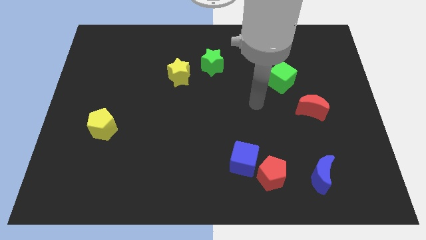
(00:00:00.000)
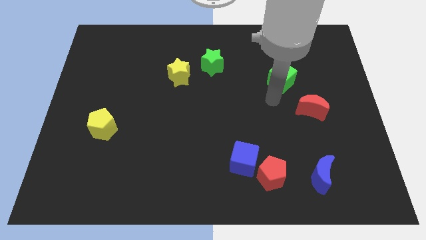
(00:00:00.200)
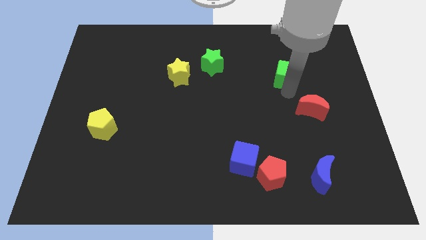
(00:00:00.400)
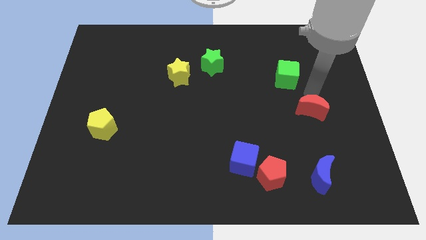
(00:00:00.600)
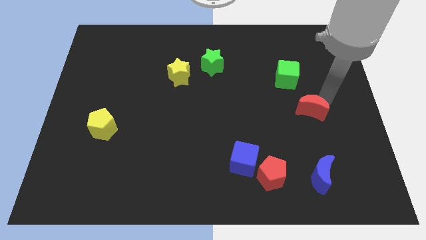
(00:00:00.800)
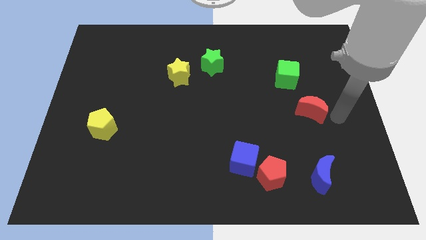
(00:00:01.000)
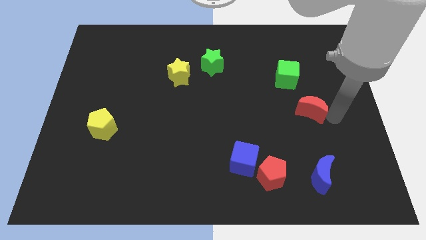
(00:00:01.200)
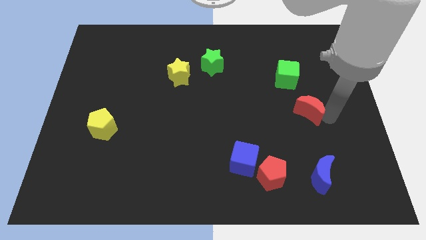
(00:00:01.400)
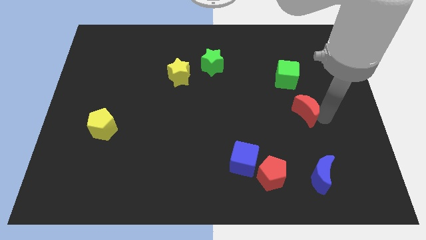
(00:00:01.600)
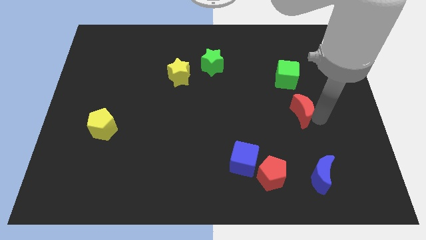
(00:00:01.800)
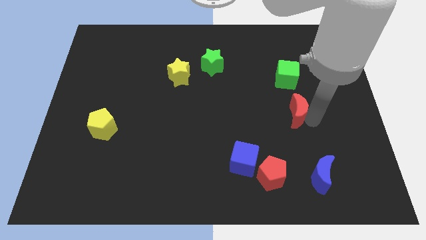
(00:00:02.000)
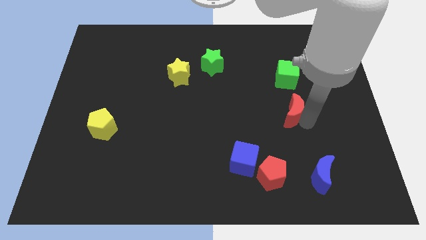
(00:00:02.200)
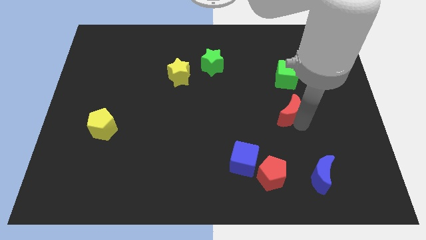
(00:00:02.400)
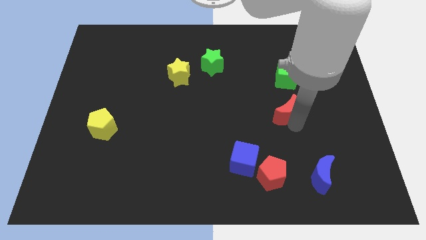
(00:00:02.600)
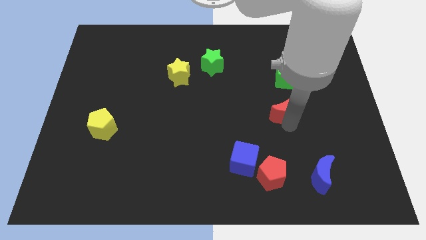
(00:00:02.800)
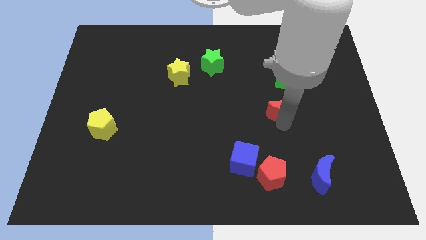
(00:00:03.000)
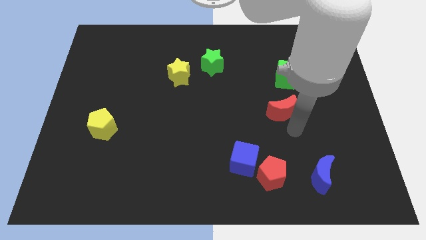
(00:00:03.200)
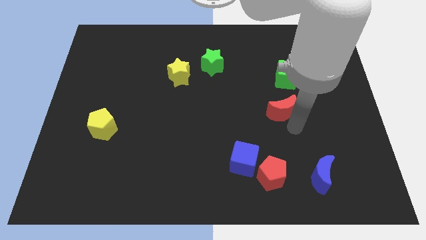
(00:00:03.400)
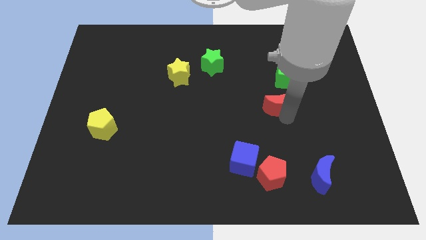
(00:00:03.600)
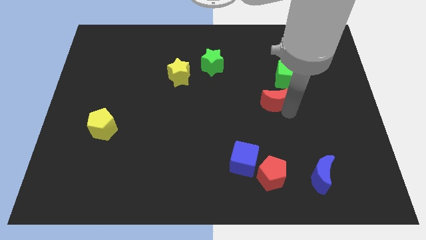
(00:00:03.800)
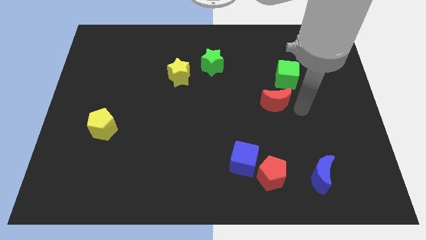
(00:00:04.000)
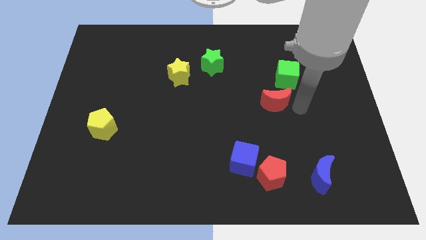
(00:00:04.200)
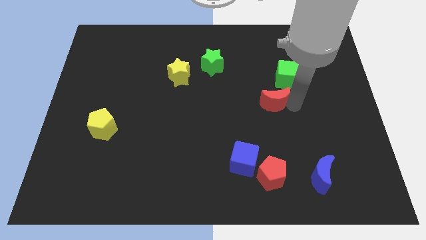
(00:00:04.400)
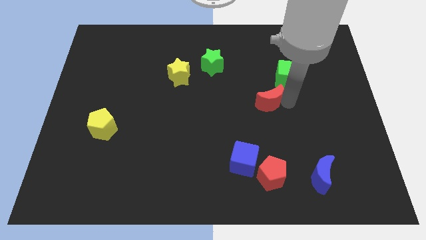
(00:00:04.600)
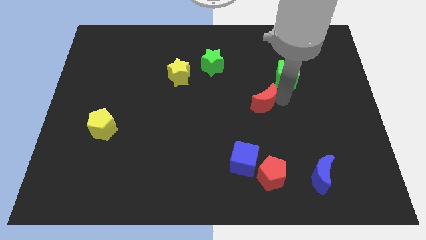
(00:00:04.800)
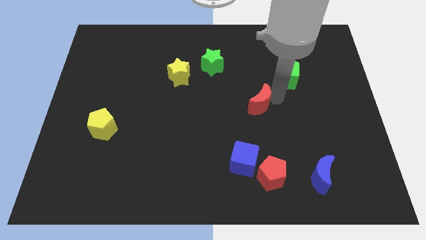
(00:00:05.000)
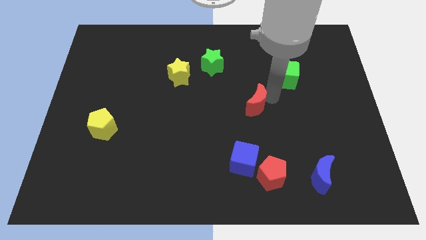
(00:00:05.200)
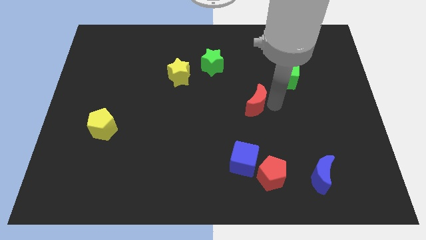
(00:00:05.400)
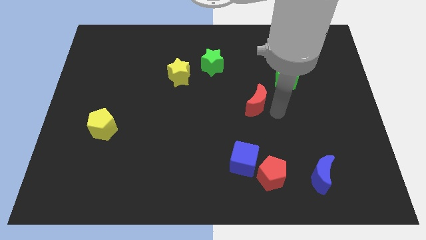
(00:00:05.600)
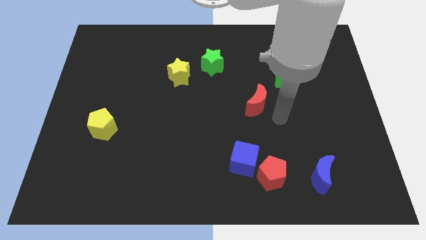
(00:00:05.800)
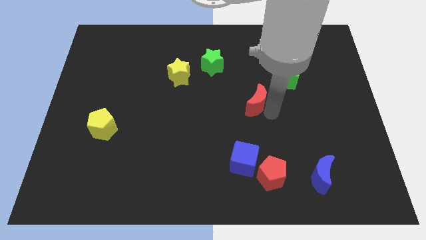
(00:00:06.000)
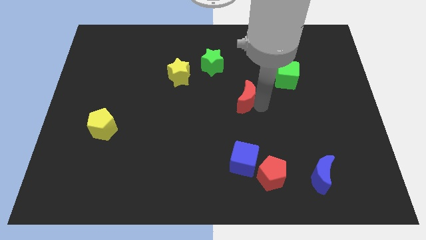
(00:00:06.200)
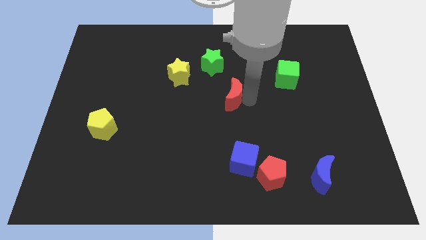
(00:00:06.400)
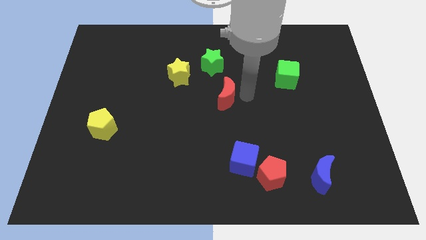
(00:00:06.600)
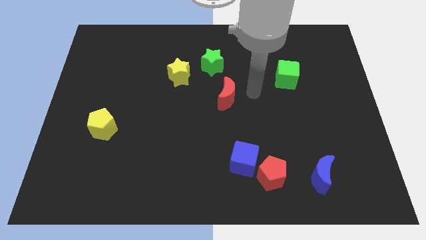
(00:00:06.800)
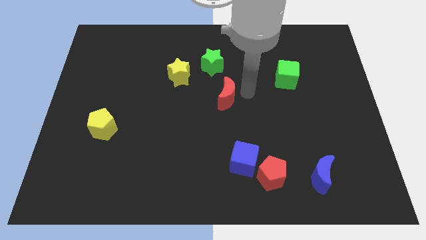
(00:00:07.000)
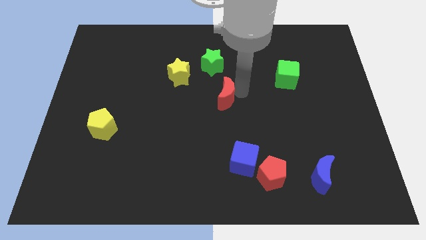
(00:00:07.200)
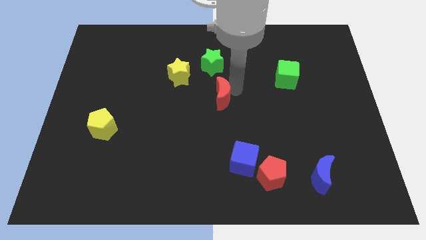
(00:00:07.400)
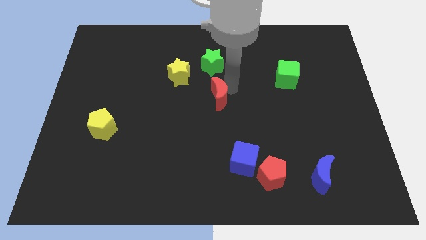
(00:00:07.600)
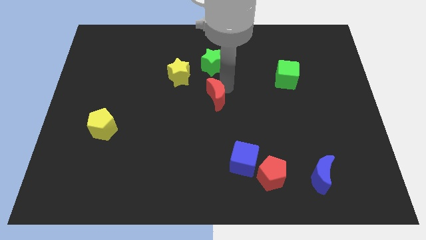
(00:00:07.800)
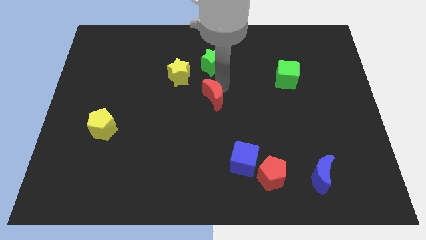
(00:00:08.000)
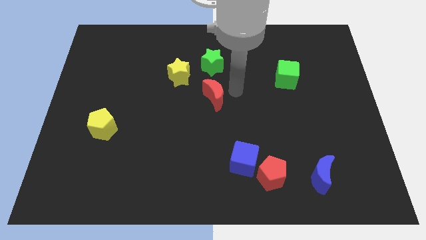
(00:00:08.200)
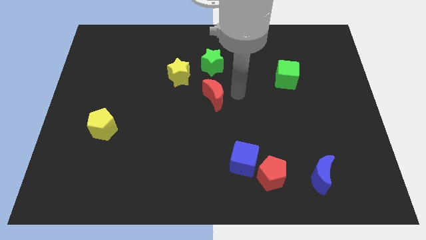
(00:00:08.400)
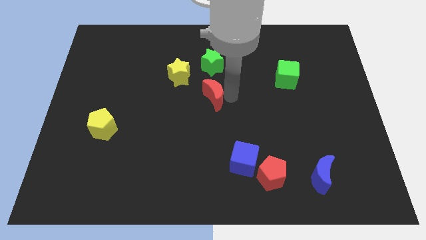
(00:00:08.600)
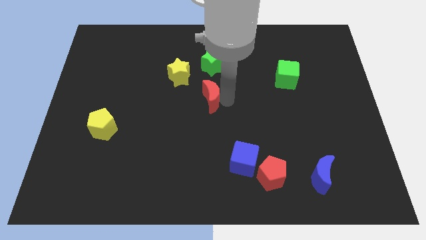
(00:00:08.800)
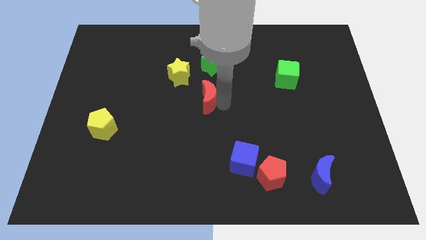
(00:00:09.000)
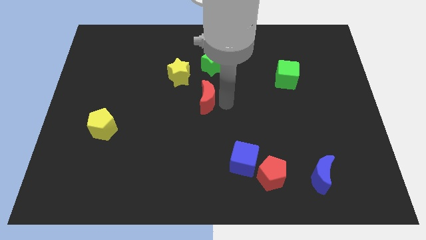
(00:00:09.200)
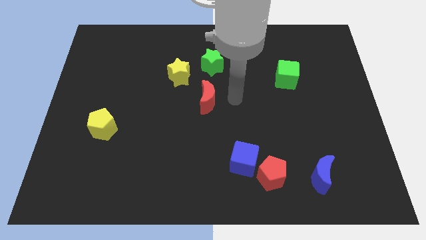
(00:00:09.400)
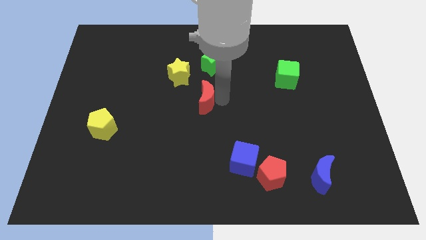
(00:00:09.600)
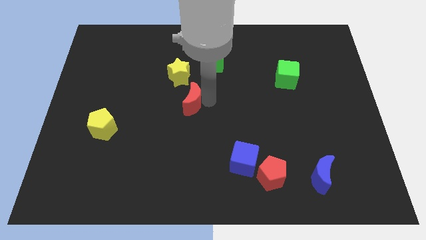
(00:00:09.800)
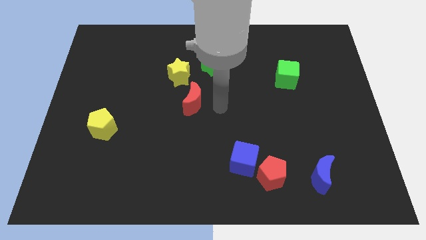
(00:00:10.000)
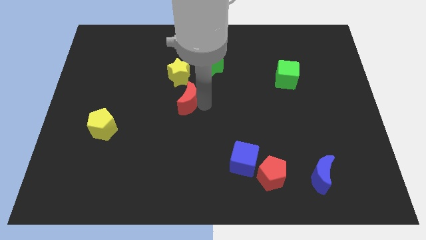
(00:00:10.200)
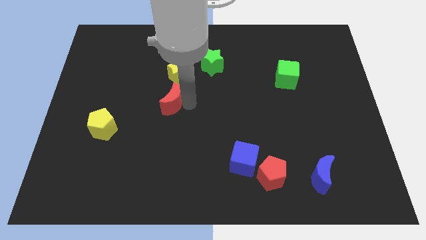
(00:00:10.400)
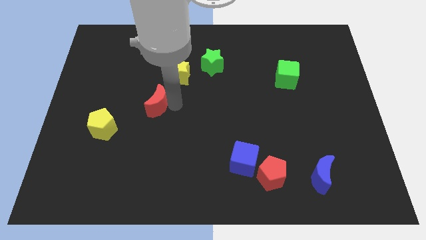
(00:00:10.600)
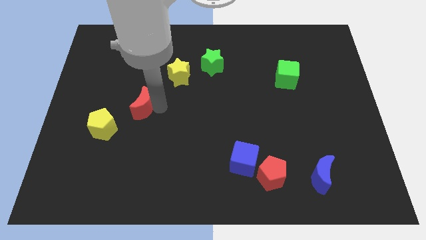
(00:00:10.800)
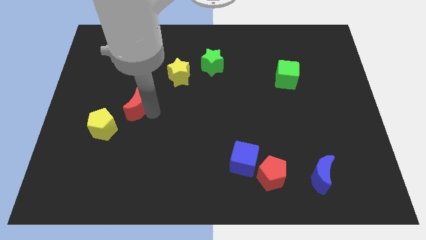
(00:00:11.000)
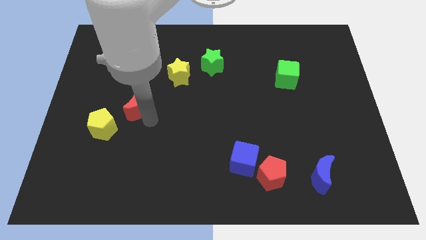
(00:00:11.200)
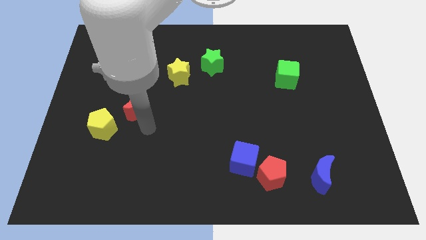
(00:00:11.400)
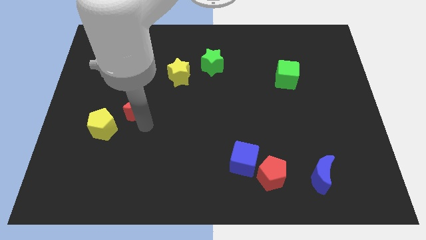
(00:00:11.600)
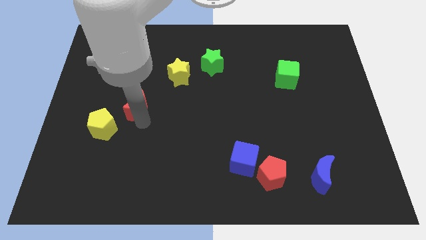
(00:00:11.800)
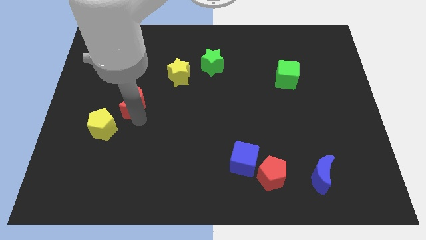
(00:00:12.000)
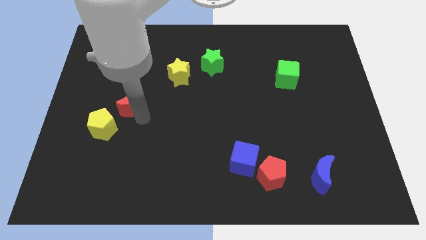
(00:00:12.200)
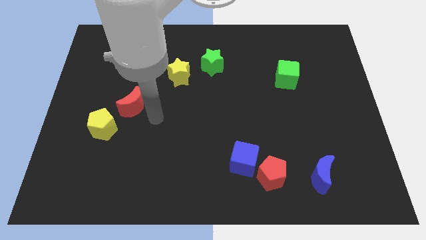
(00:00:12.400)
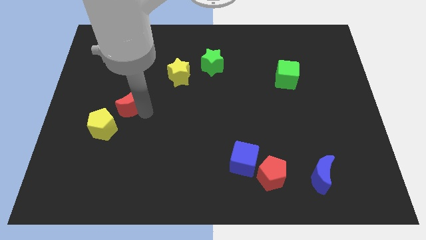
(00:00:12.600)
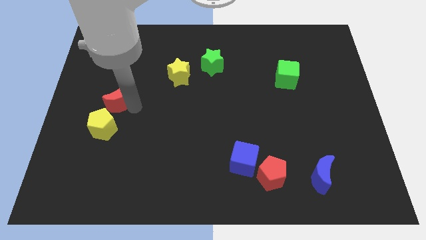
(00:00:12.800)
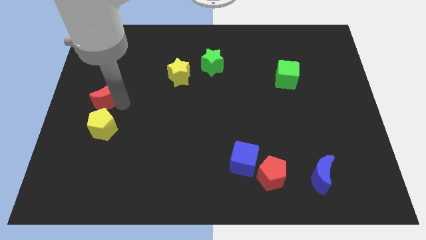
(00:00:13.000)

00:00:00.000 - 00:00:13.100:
slide the red moon to the left side

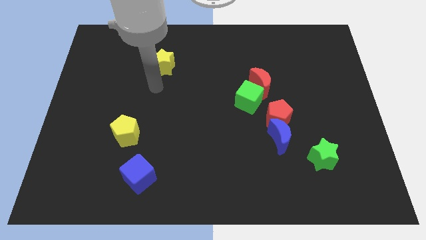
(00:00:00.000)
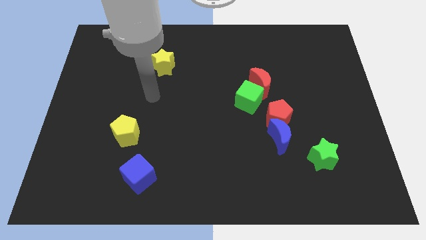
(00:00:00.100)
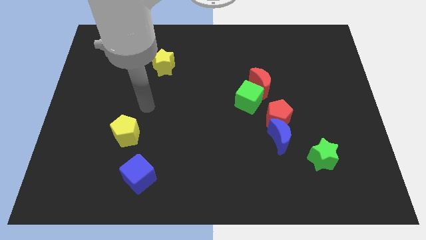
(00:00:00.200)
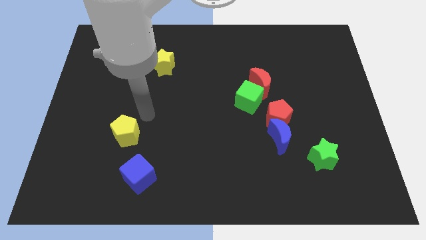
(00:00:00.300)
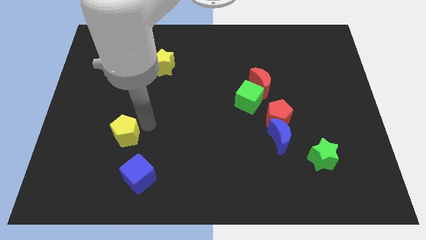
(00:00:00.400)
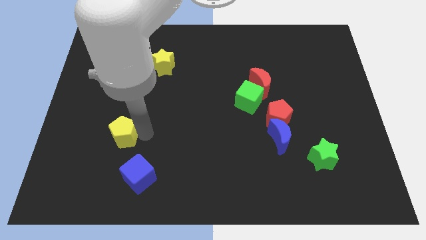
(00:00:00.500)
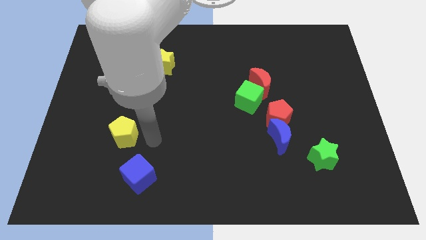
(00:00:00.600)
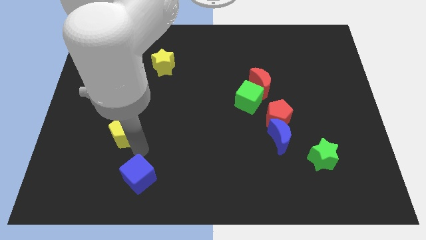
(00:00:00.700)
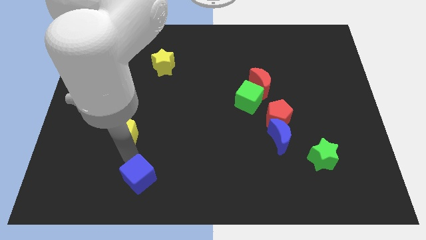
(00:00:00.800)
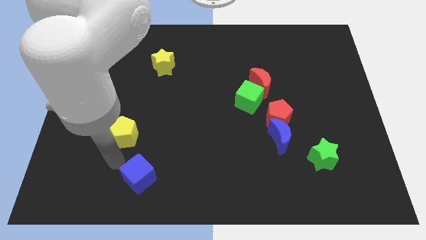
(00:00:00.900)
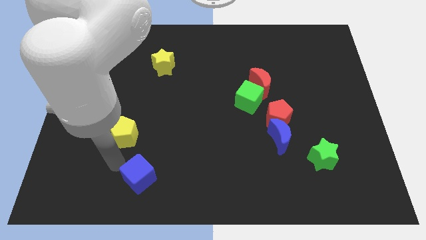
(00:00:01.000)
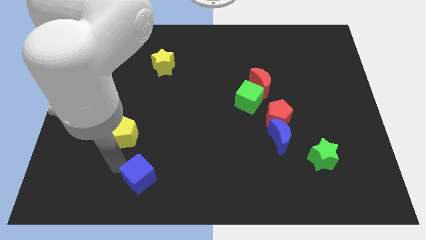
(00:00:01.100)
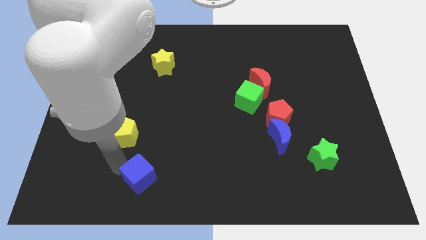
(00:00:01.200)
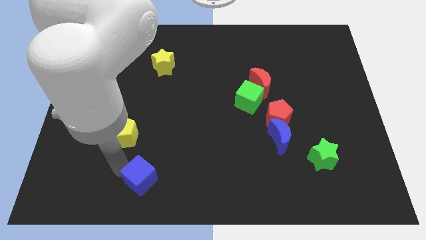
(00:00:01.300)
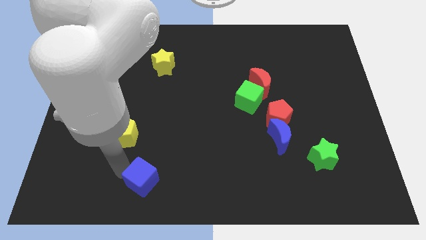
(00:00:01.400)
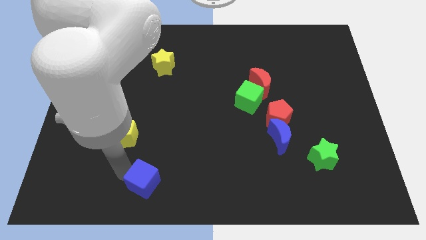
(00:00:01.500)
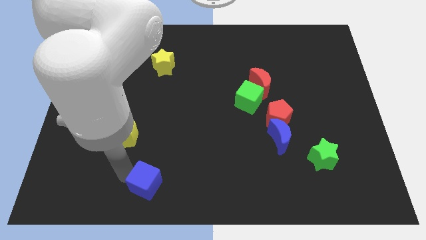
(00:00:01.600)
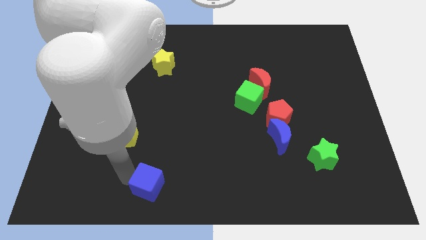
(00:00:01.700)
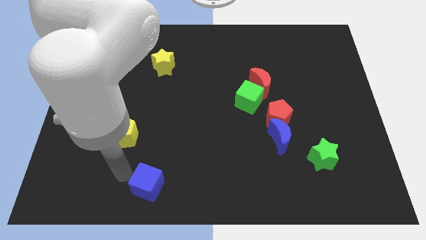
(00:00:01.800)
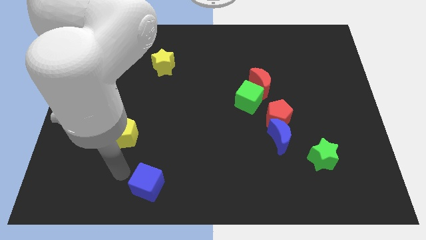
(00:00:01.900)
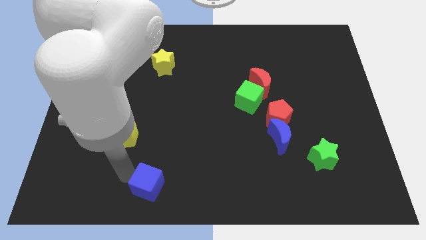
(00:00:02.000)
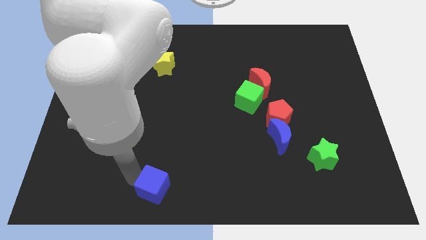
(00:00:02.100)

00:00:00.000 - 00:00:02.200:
put the blue cube to the bottom side
